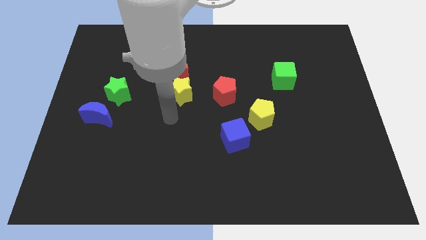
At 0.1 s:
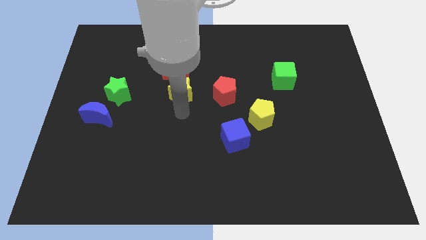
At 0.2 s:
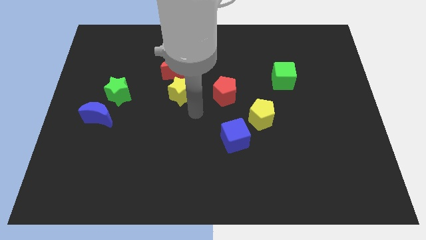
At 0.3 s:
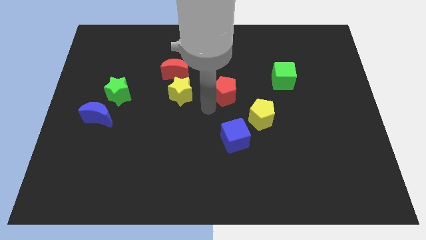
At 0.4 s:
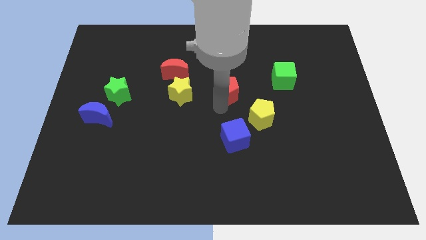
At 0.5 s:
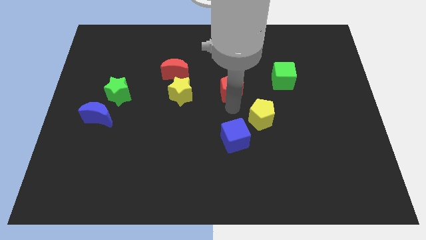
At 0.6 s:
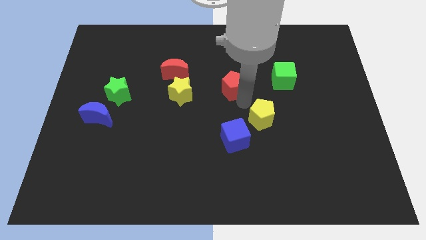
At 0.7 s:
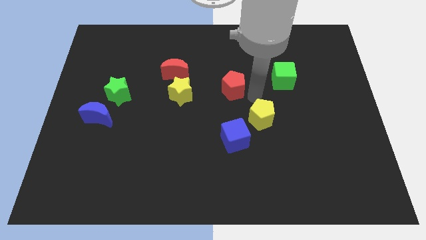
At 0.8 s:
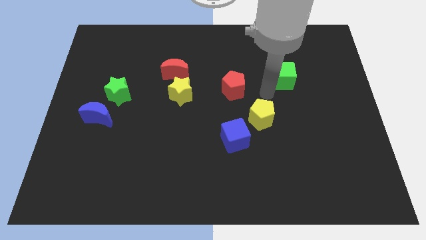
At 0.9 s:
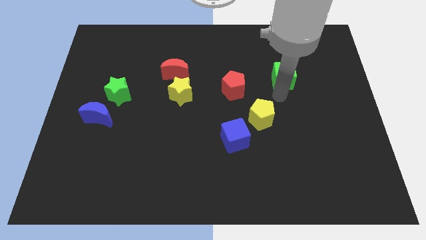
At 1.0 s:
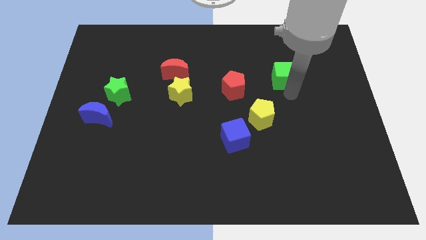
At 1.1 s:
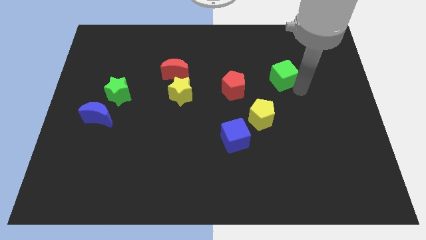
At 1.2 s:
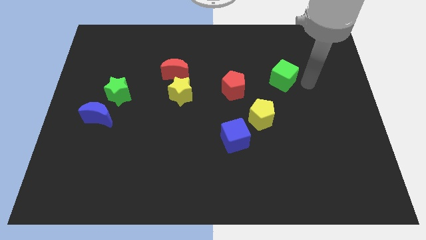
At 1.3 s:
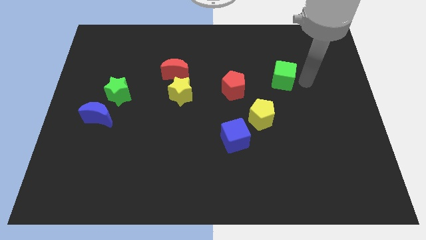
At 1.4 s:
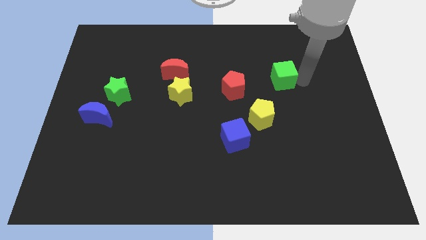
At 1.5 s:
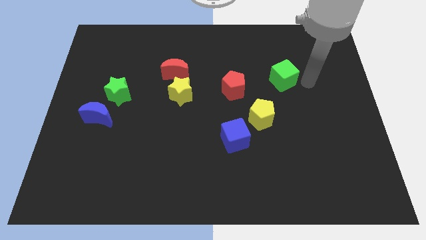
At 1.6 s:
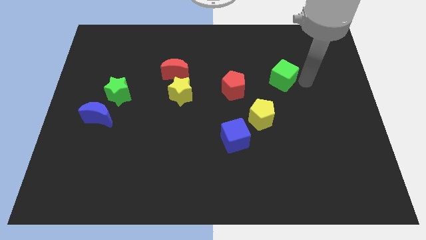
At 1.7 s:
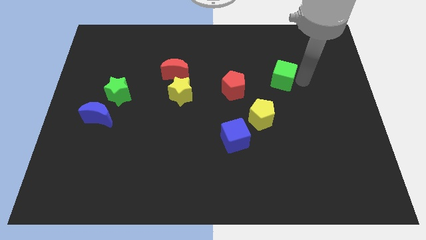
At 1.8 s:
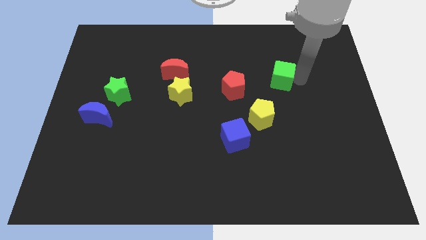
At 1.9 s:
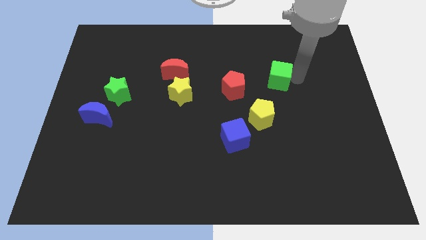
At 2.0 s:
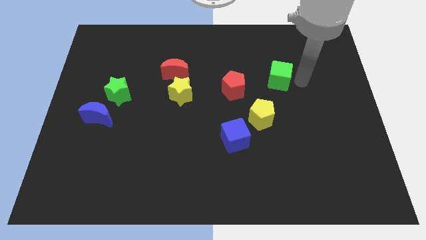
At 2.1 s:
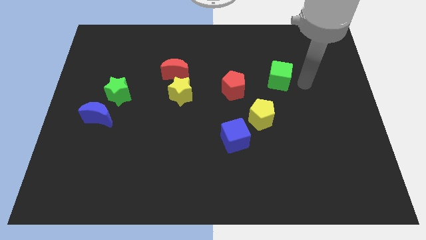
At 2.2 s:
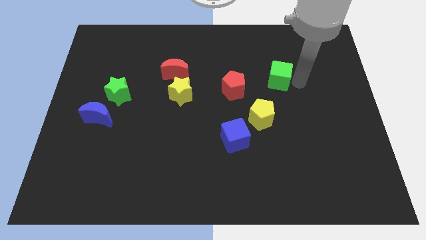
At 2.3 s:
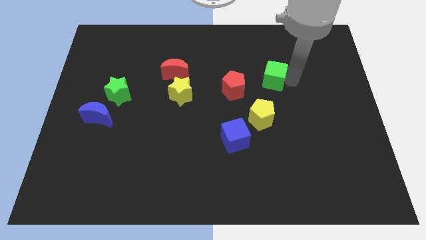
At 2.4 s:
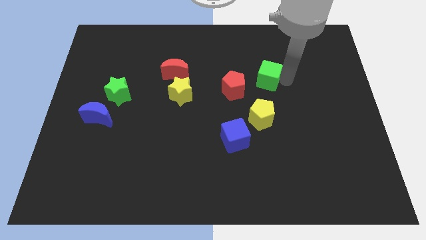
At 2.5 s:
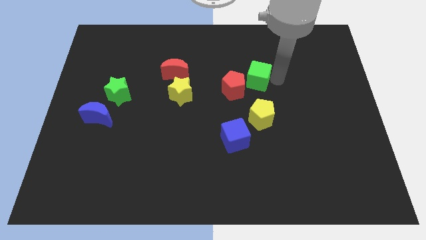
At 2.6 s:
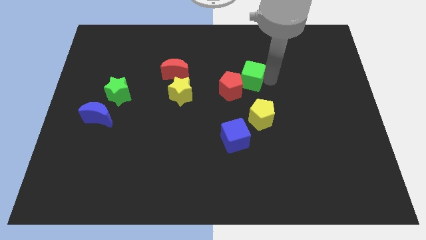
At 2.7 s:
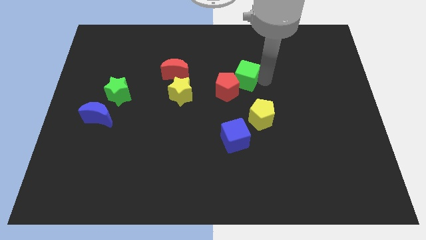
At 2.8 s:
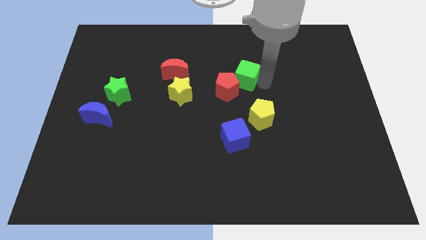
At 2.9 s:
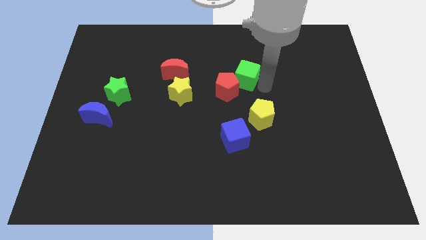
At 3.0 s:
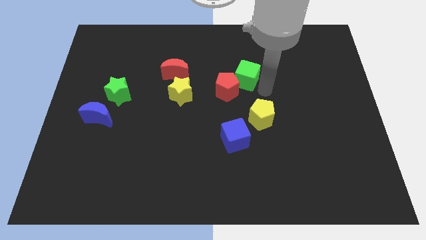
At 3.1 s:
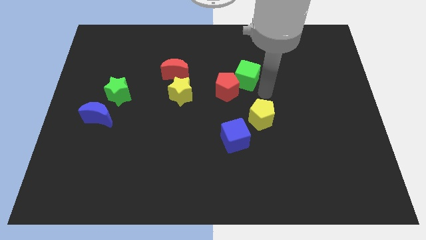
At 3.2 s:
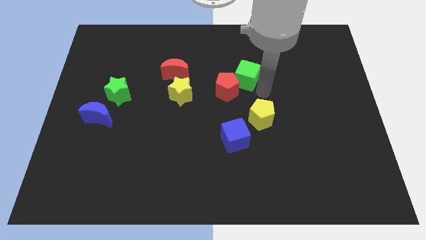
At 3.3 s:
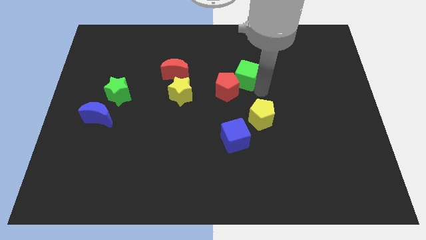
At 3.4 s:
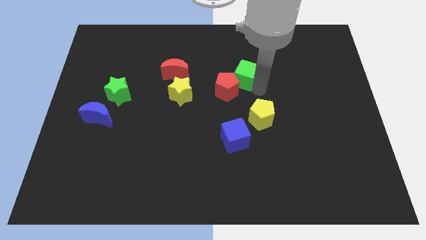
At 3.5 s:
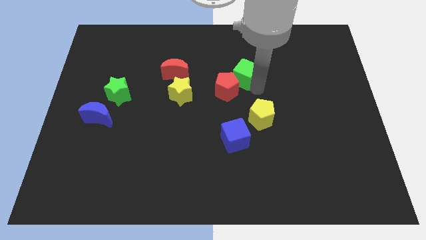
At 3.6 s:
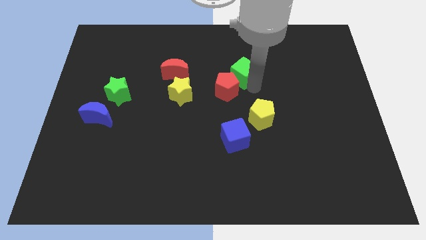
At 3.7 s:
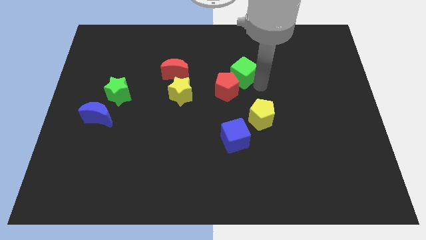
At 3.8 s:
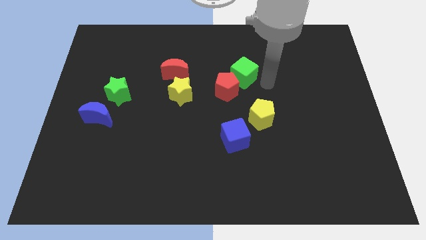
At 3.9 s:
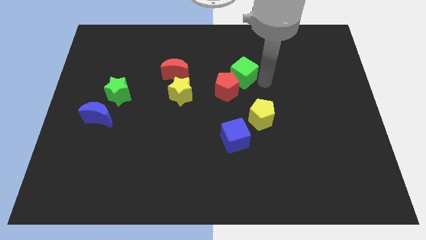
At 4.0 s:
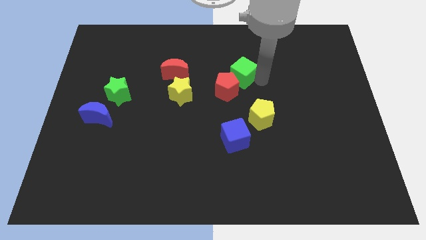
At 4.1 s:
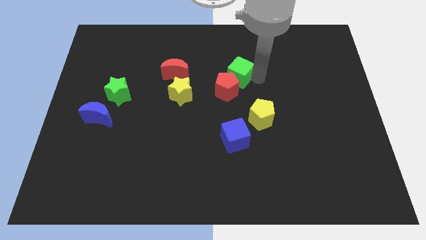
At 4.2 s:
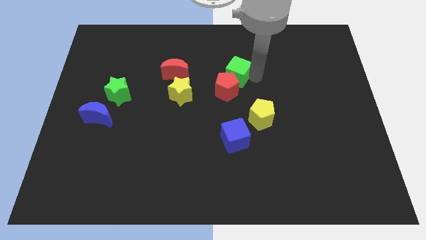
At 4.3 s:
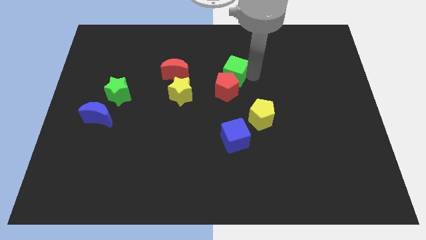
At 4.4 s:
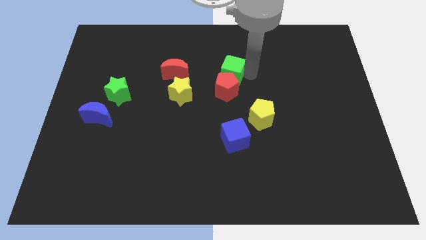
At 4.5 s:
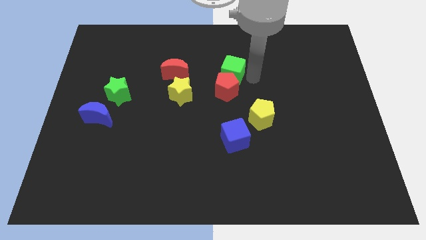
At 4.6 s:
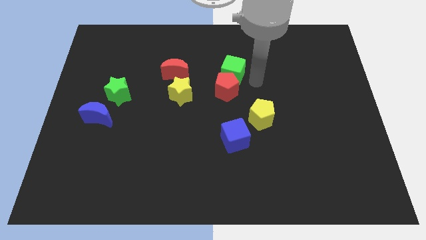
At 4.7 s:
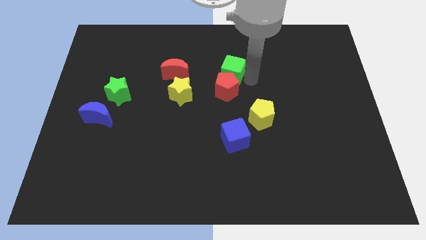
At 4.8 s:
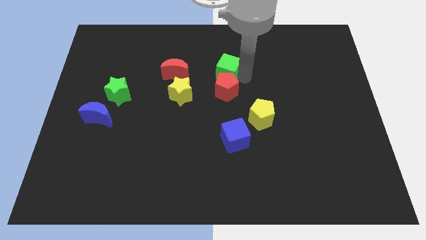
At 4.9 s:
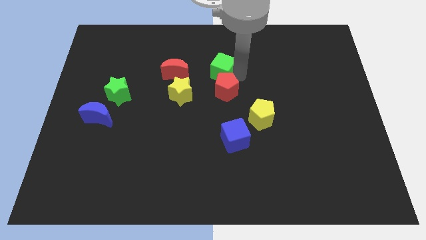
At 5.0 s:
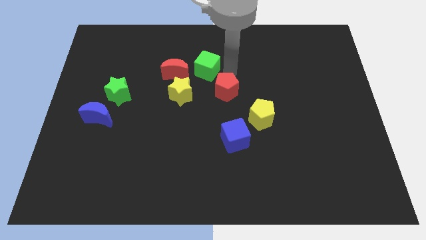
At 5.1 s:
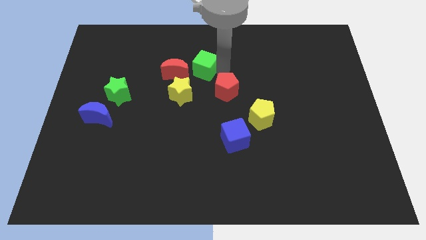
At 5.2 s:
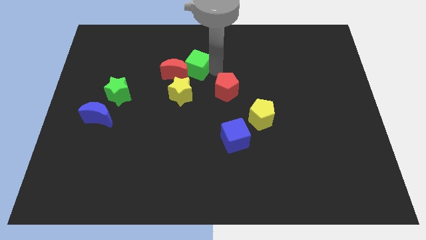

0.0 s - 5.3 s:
slide the green cube above the yellow star

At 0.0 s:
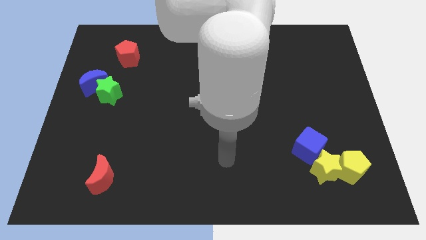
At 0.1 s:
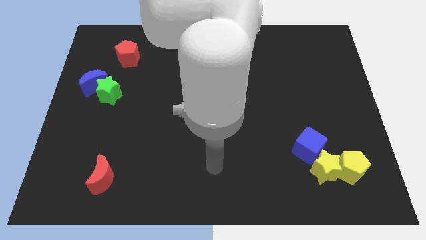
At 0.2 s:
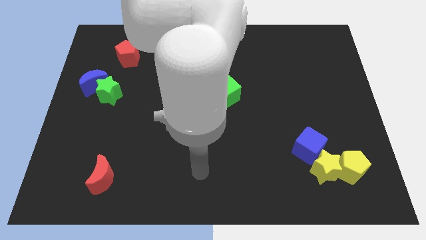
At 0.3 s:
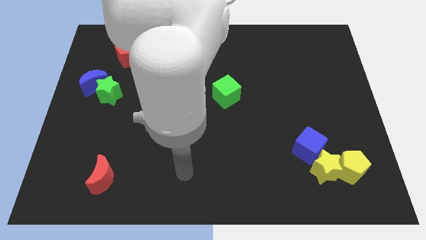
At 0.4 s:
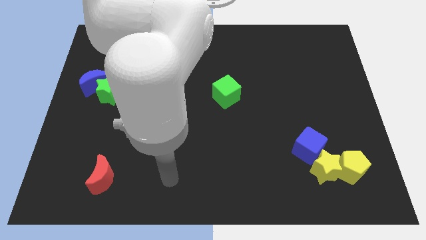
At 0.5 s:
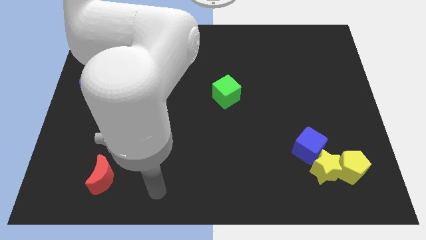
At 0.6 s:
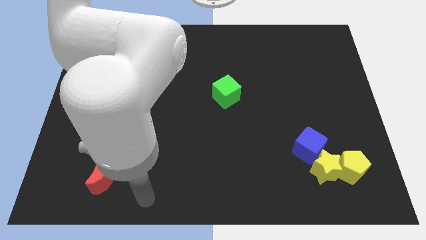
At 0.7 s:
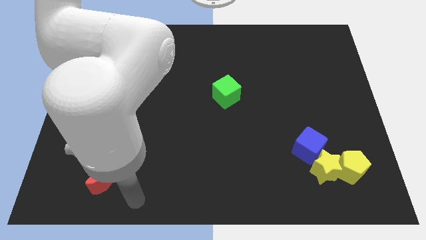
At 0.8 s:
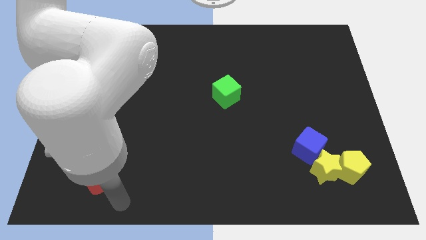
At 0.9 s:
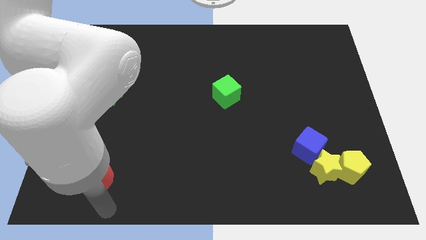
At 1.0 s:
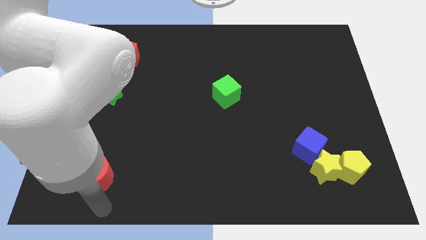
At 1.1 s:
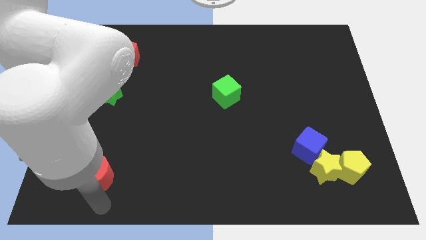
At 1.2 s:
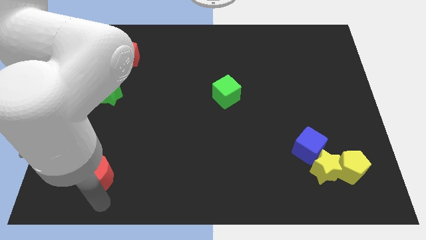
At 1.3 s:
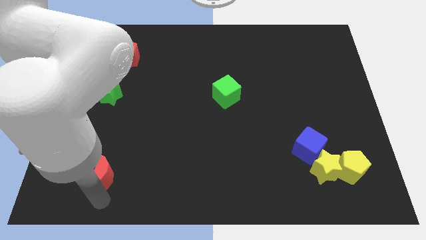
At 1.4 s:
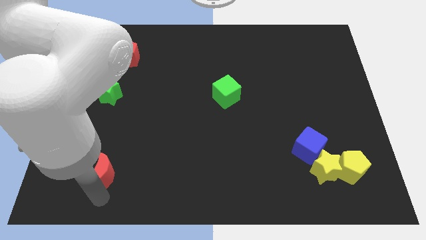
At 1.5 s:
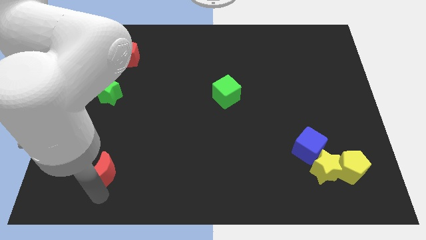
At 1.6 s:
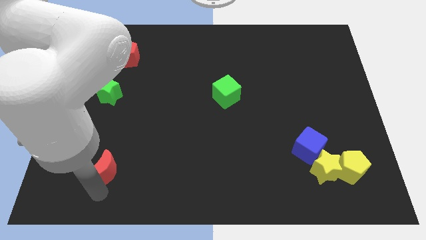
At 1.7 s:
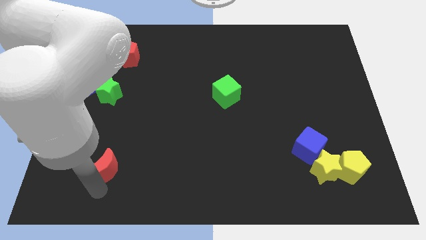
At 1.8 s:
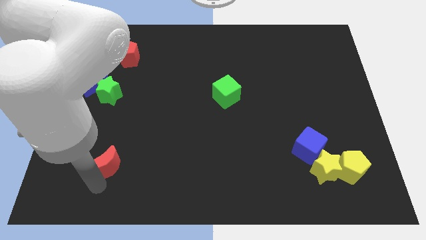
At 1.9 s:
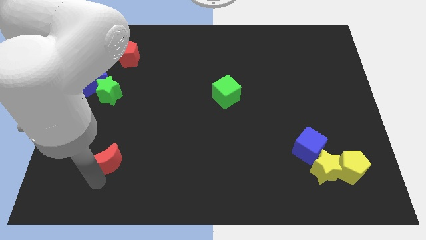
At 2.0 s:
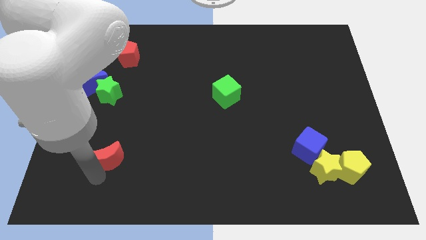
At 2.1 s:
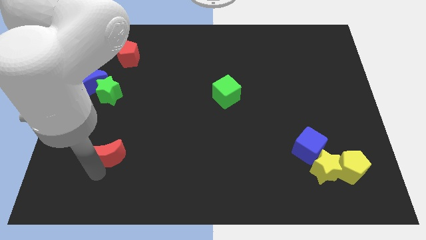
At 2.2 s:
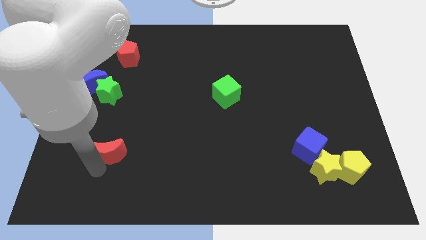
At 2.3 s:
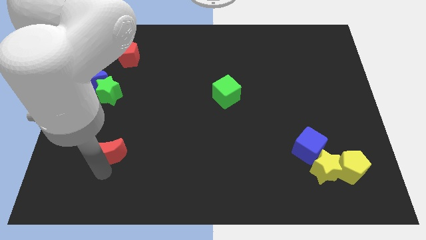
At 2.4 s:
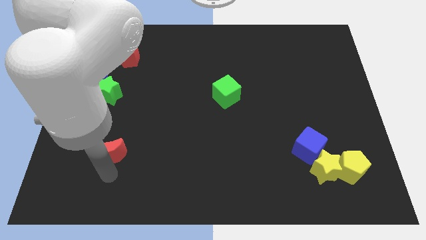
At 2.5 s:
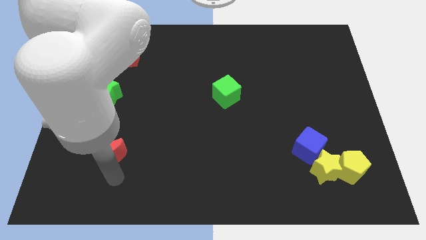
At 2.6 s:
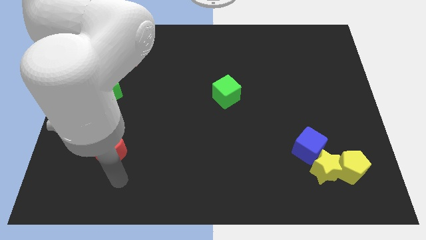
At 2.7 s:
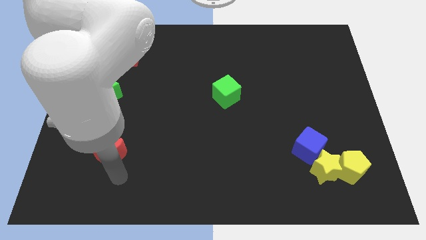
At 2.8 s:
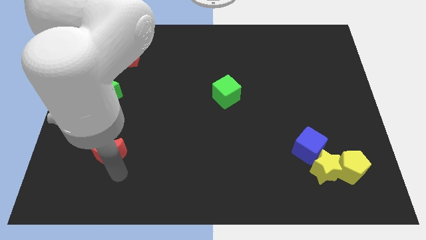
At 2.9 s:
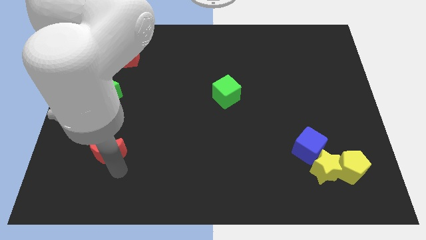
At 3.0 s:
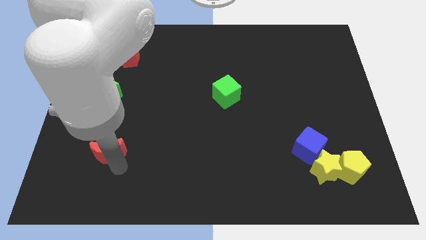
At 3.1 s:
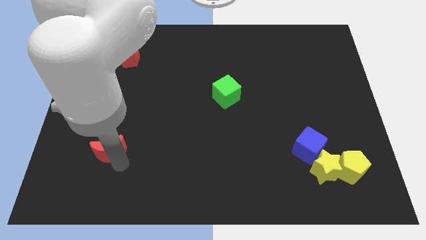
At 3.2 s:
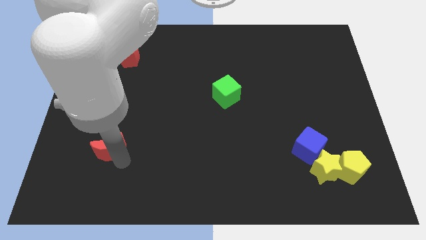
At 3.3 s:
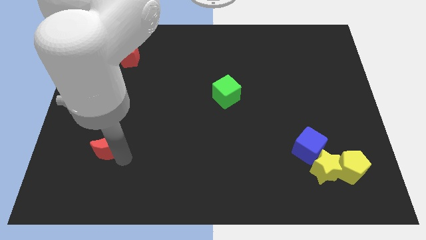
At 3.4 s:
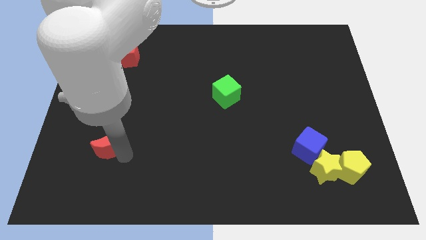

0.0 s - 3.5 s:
push the red moon below the green star
